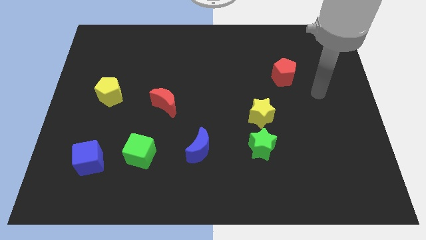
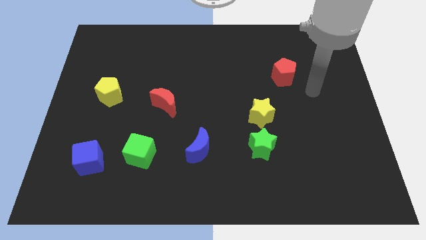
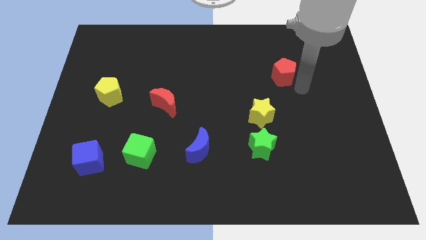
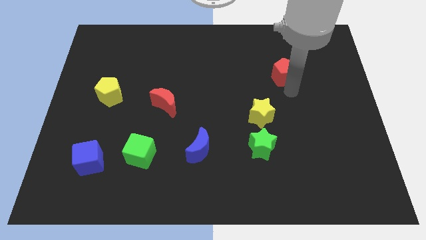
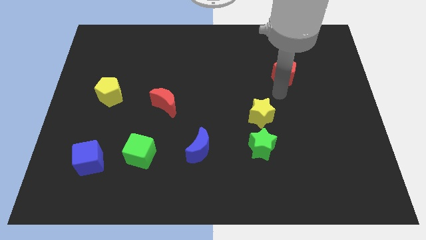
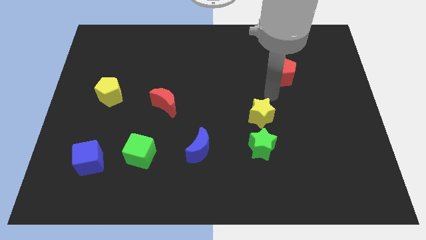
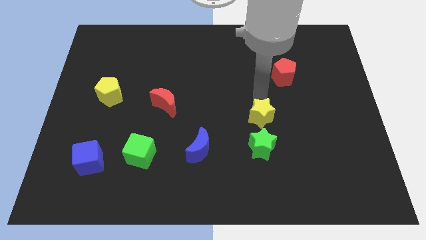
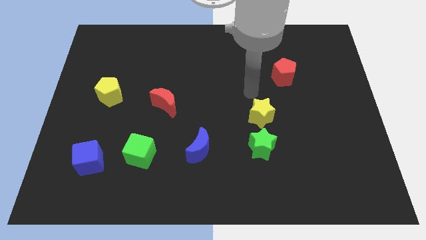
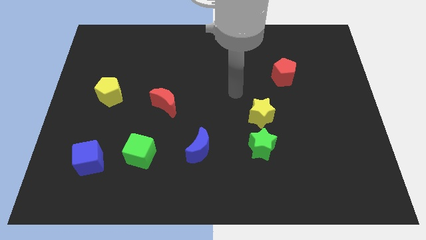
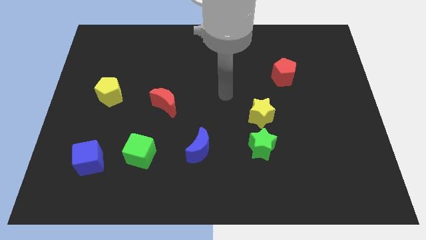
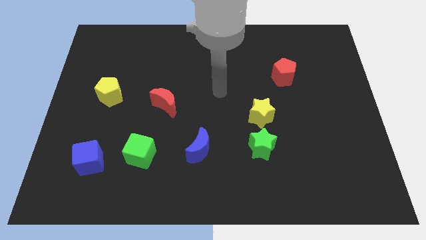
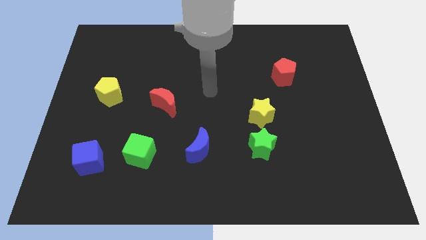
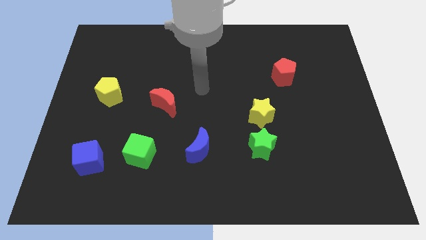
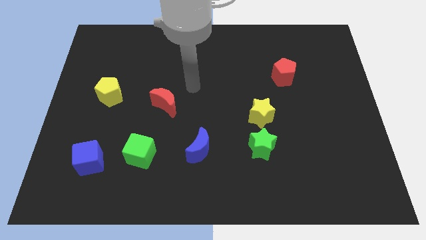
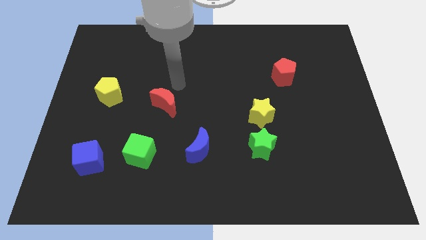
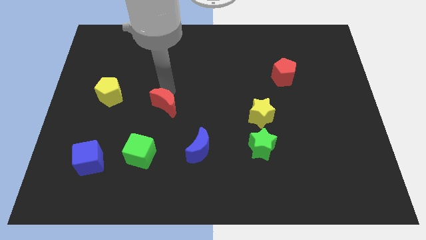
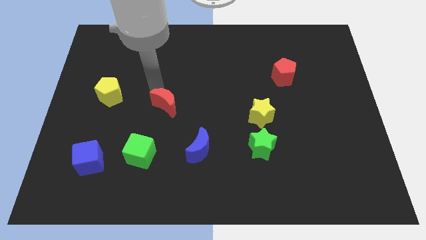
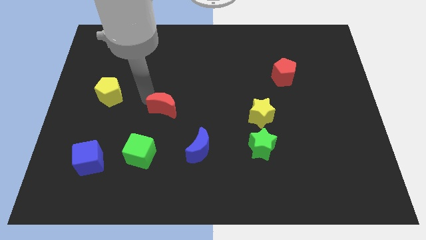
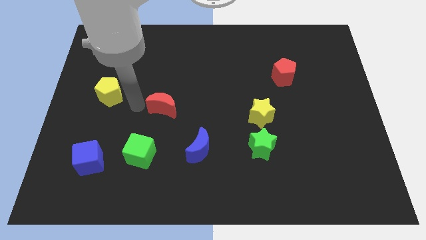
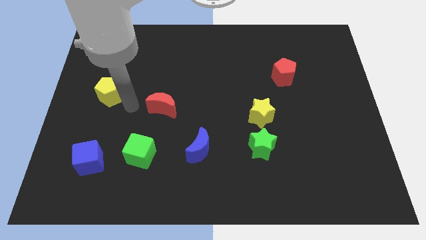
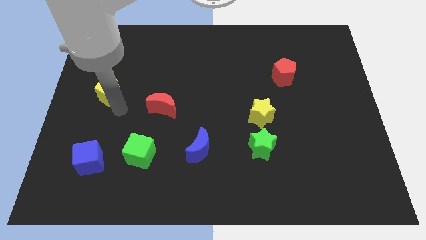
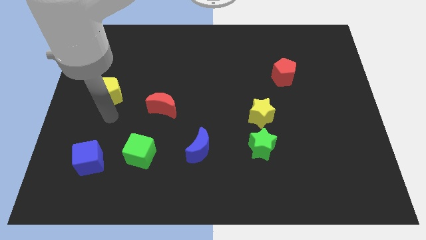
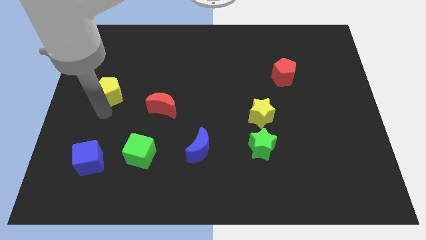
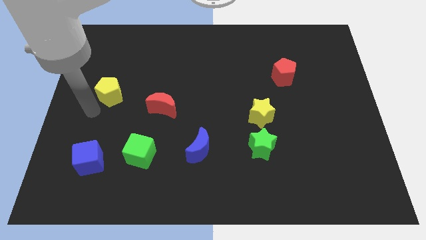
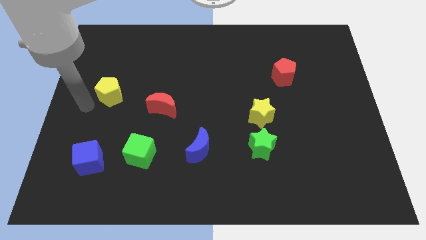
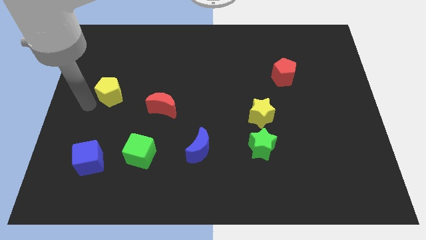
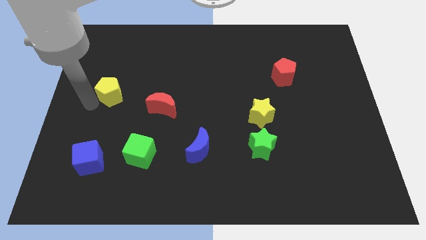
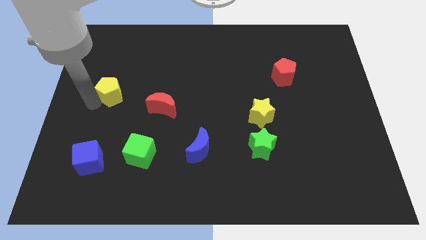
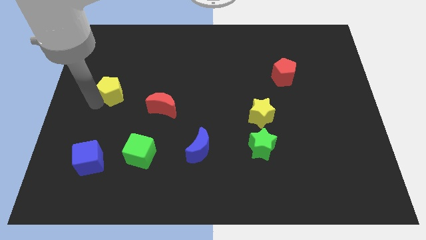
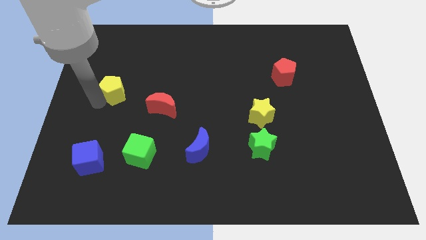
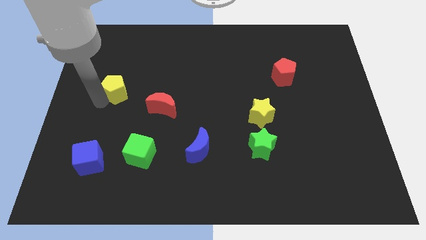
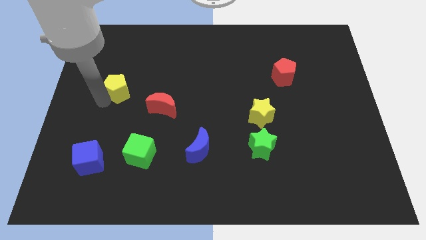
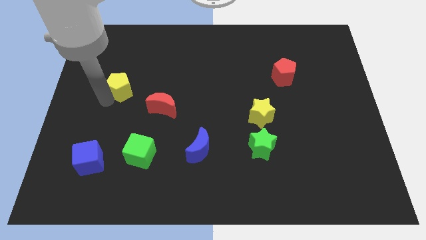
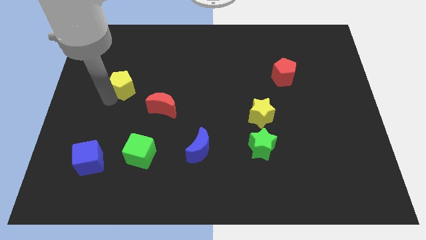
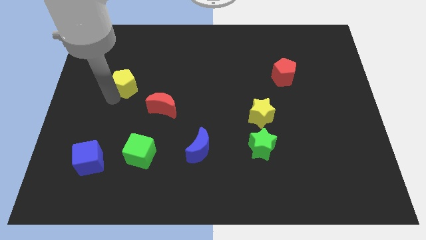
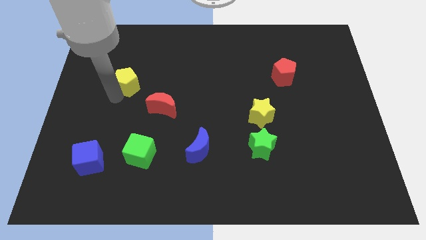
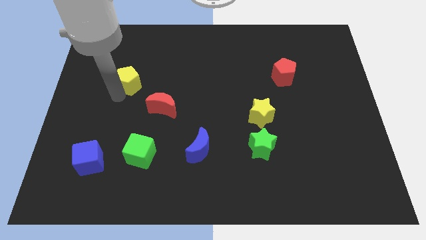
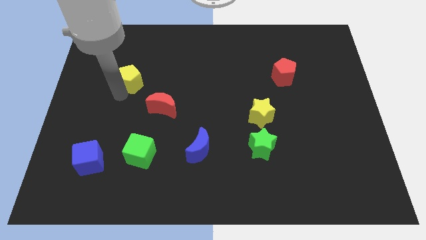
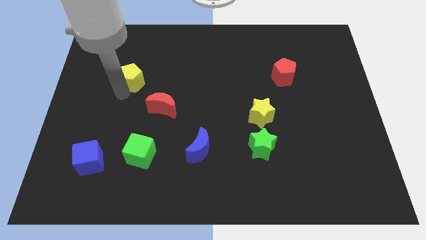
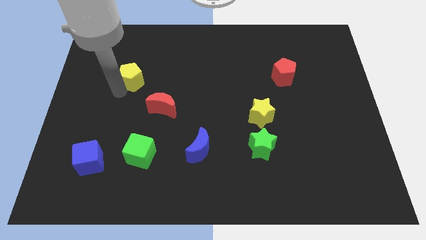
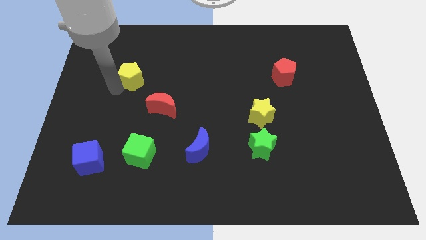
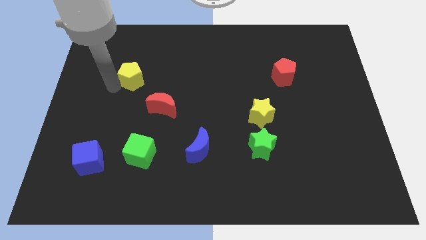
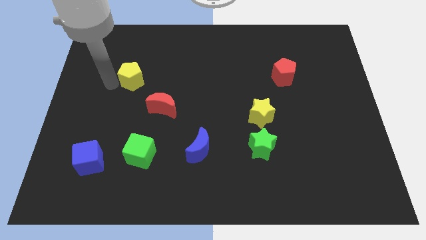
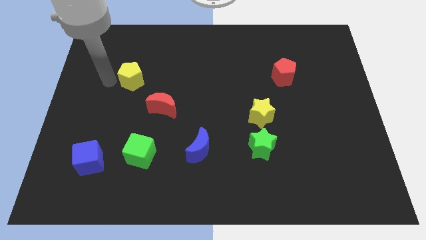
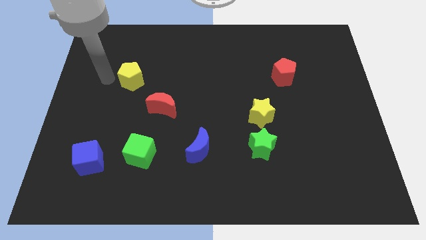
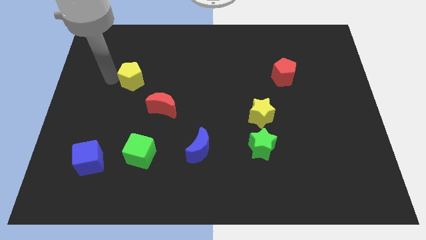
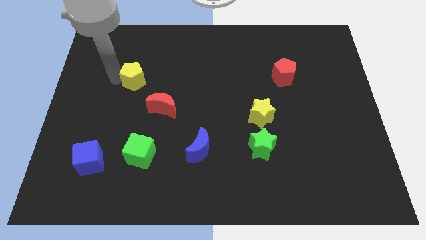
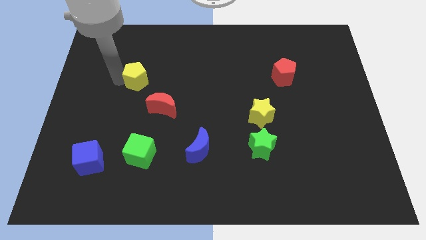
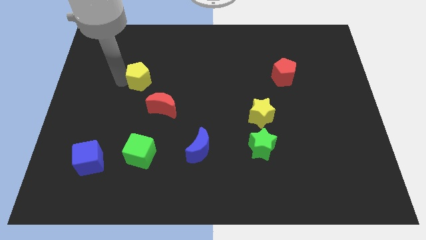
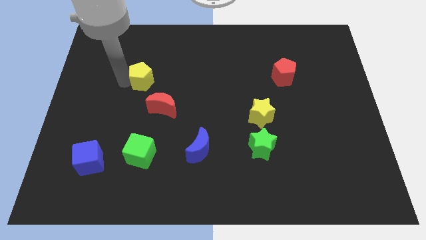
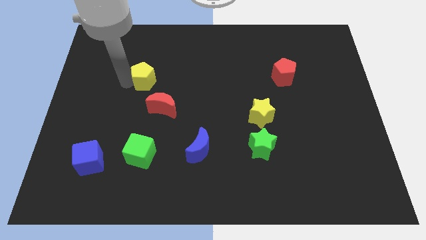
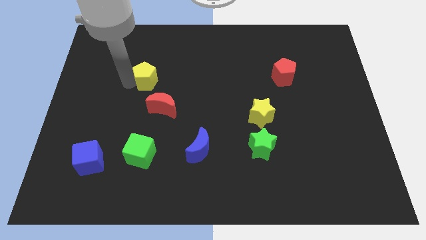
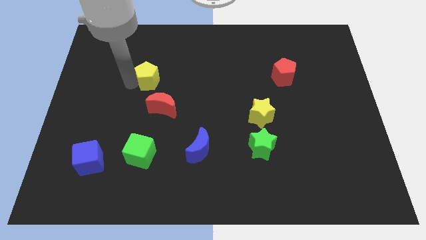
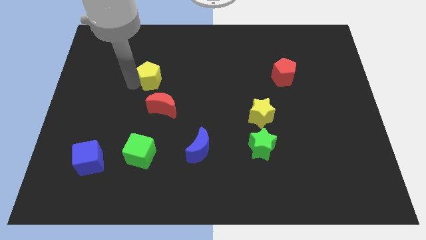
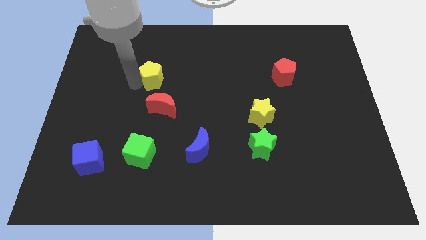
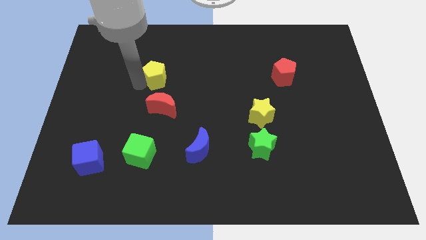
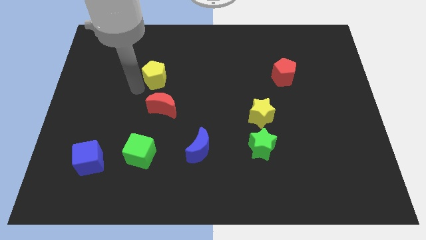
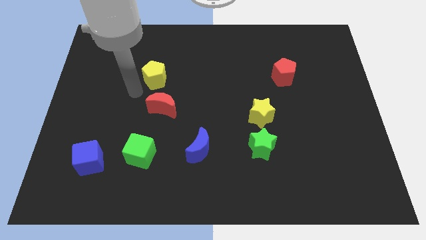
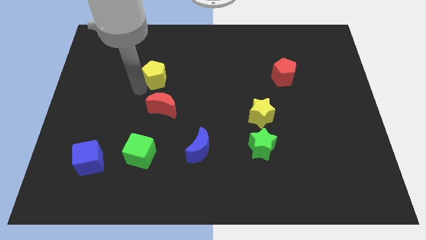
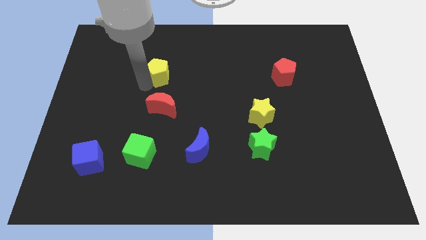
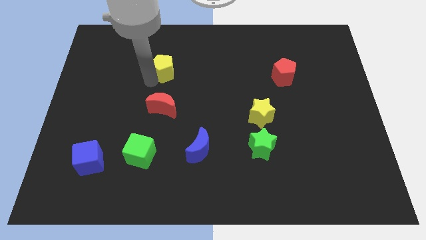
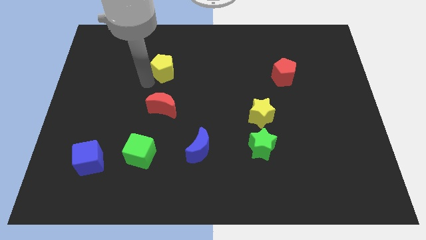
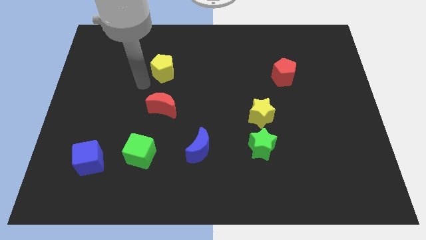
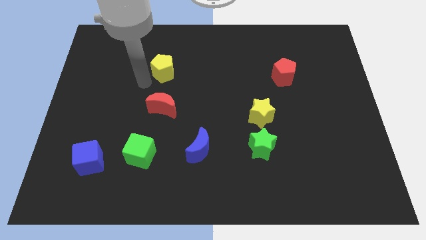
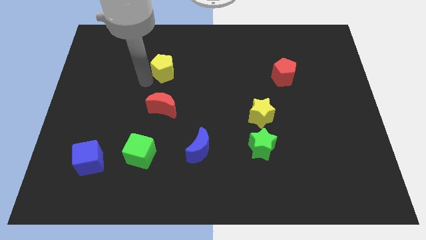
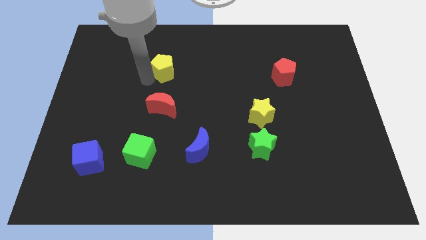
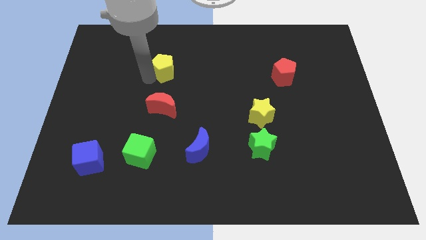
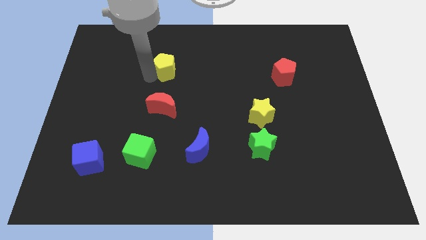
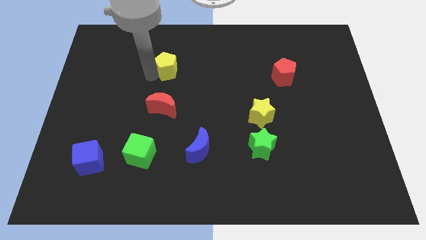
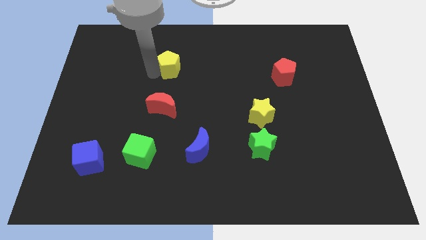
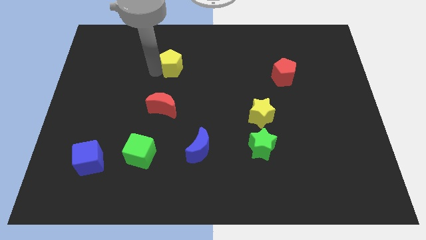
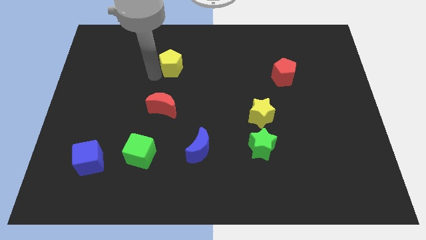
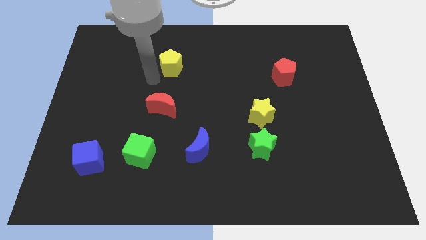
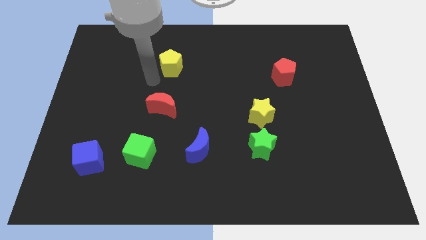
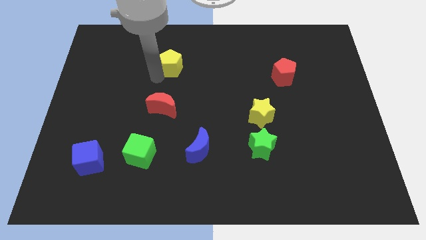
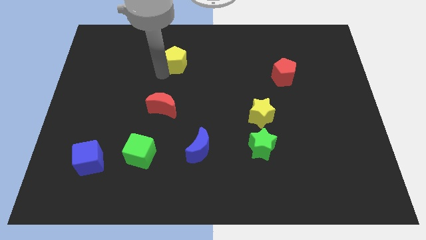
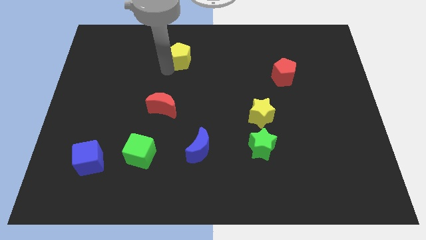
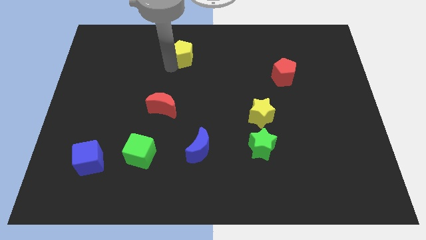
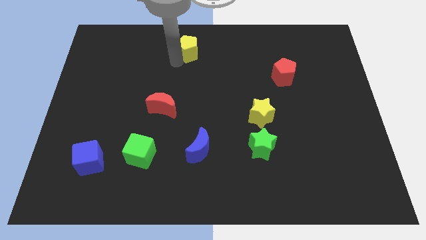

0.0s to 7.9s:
move the yellow pentagon to the top side
